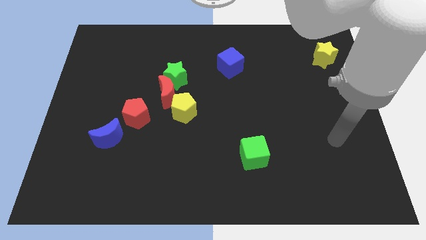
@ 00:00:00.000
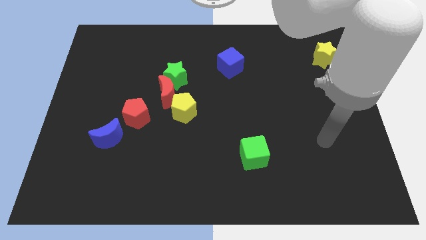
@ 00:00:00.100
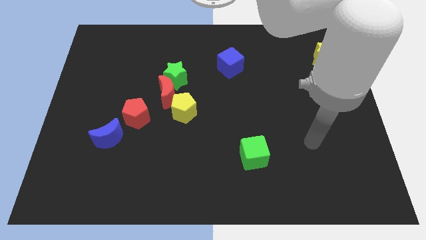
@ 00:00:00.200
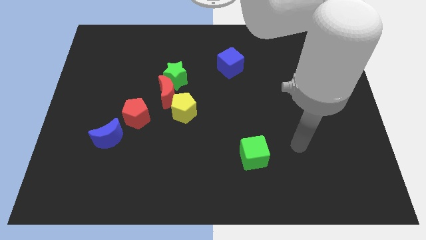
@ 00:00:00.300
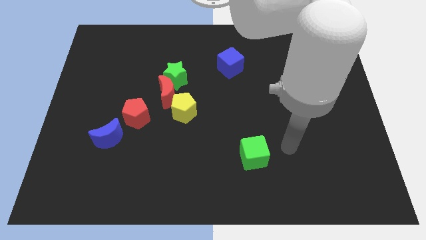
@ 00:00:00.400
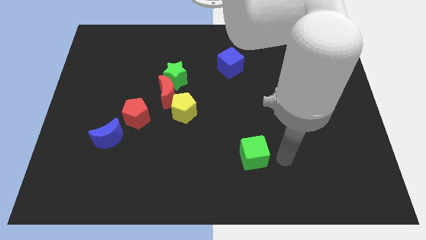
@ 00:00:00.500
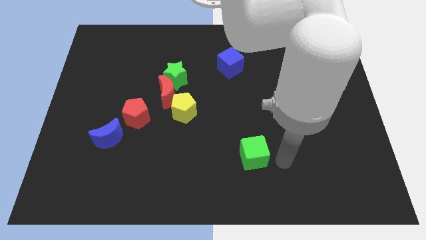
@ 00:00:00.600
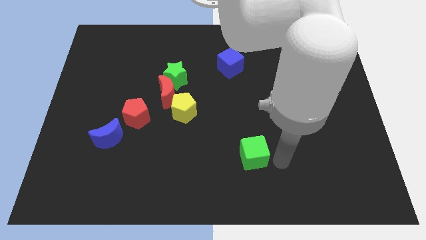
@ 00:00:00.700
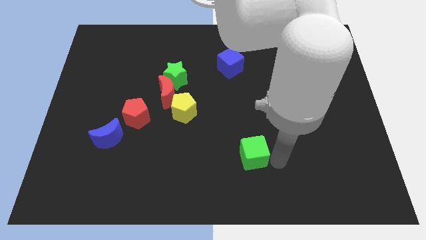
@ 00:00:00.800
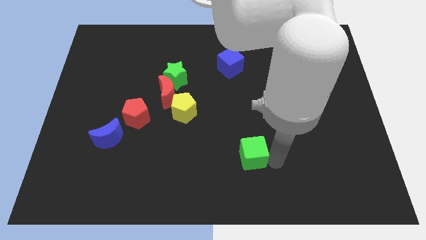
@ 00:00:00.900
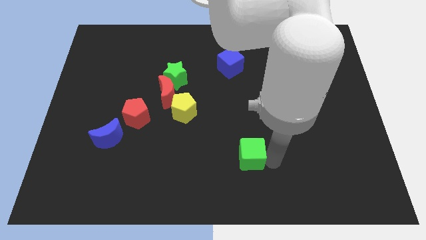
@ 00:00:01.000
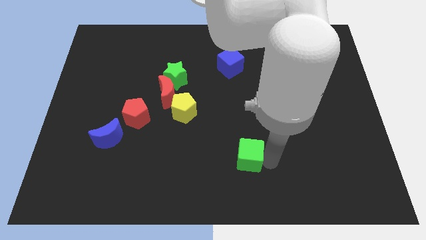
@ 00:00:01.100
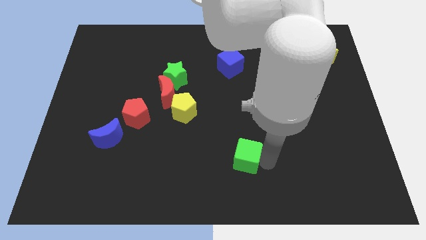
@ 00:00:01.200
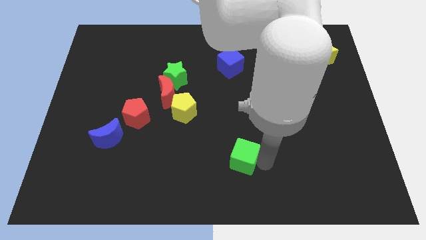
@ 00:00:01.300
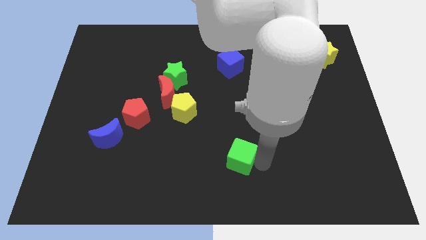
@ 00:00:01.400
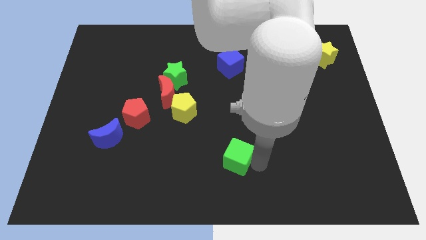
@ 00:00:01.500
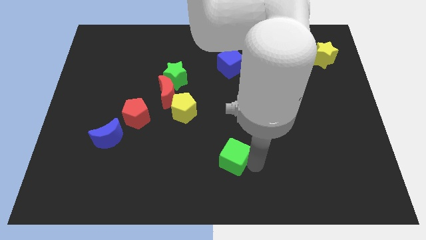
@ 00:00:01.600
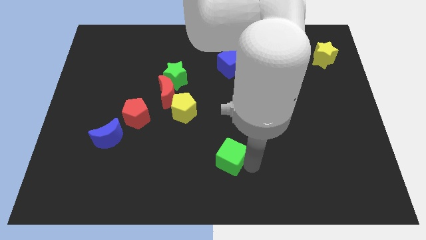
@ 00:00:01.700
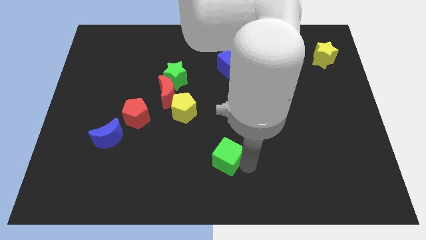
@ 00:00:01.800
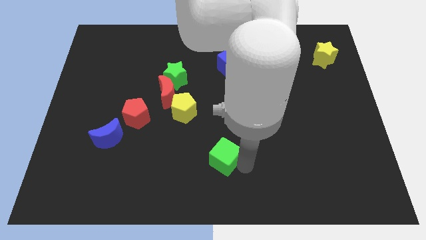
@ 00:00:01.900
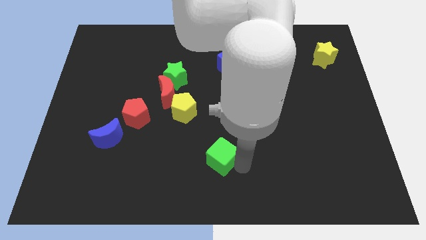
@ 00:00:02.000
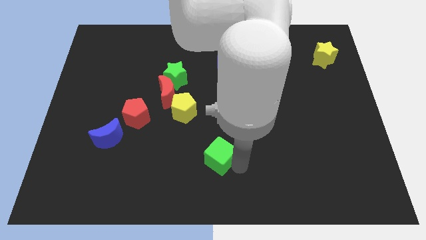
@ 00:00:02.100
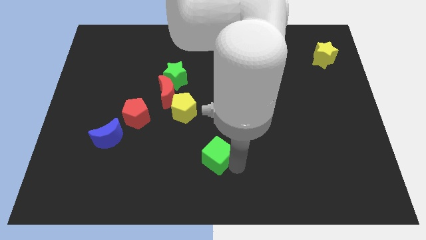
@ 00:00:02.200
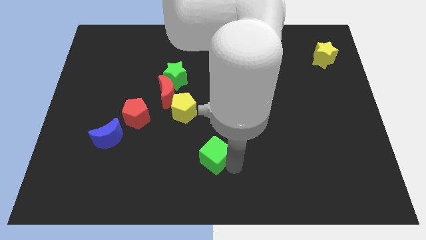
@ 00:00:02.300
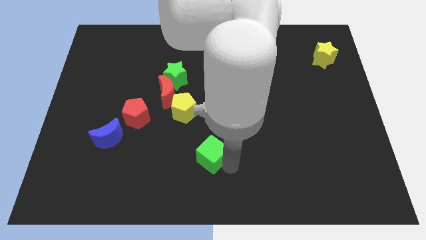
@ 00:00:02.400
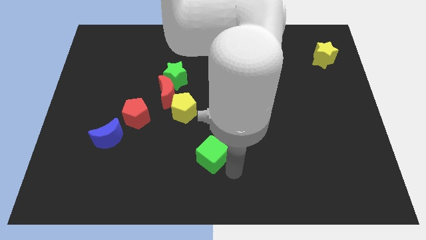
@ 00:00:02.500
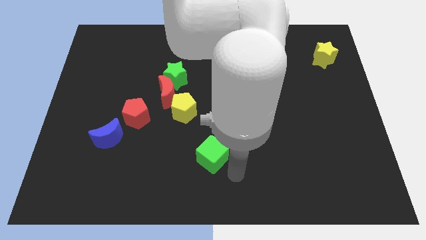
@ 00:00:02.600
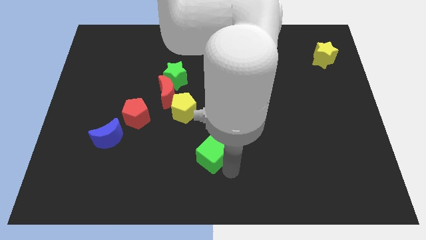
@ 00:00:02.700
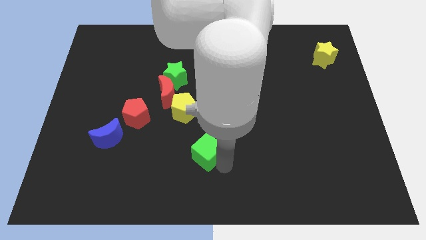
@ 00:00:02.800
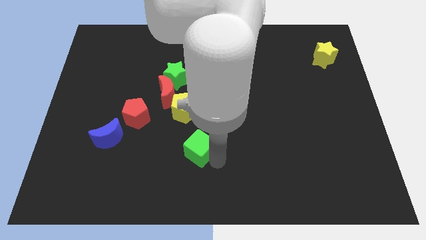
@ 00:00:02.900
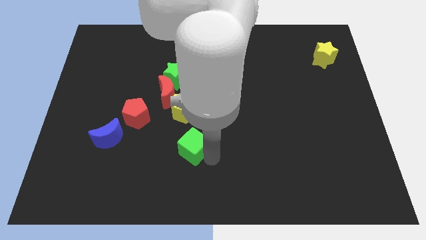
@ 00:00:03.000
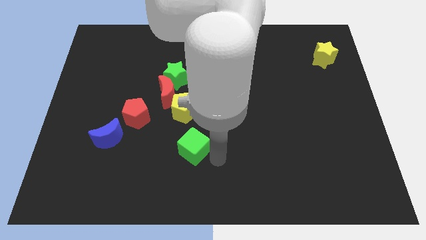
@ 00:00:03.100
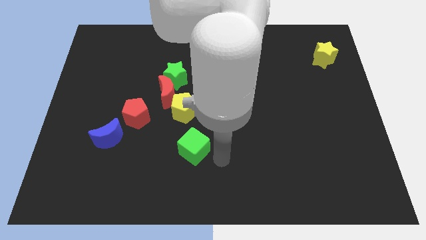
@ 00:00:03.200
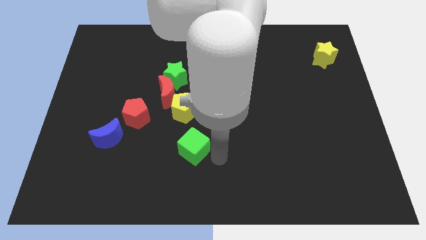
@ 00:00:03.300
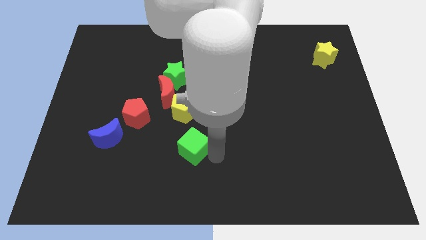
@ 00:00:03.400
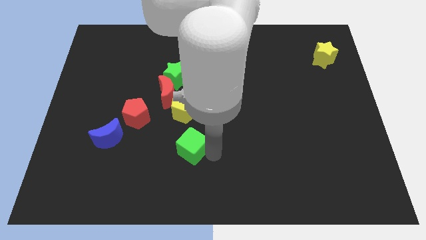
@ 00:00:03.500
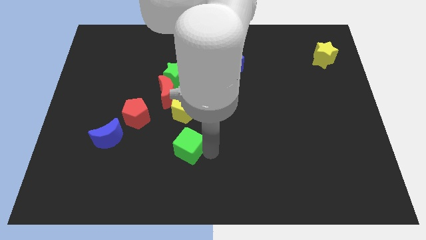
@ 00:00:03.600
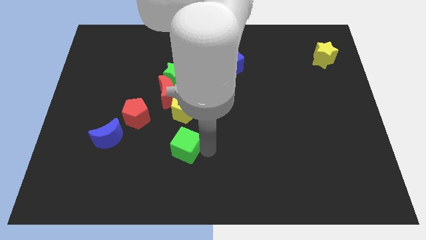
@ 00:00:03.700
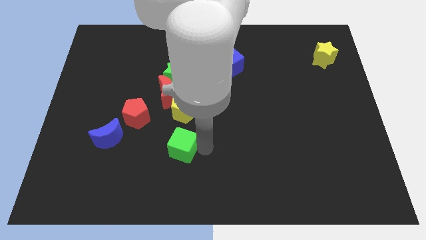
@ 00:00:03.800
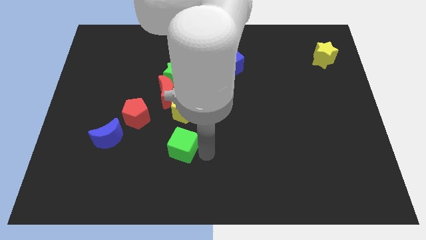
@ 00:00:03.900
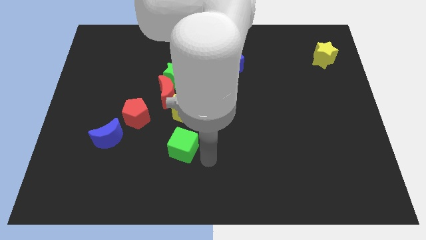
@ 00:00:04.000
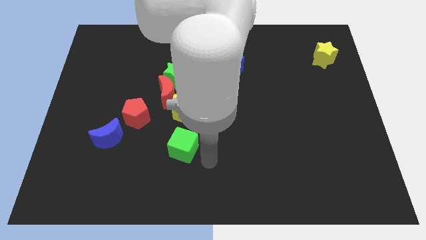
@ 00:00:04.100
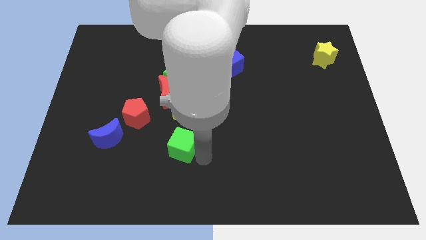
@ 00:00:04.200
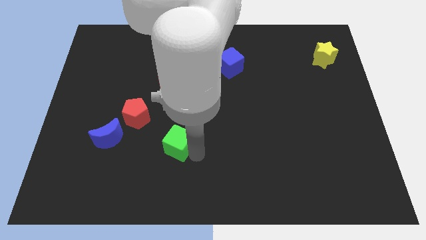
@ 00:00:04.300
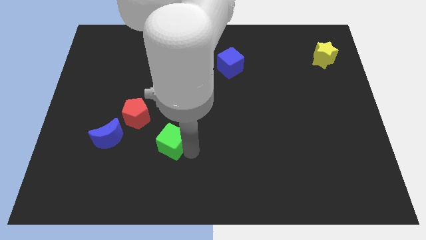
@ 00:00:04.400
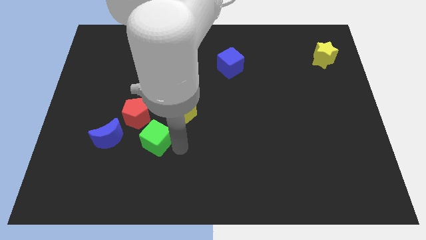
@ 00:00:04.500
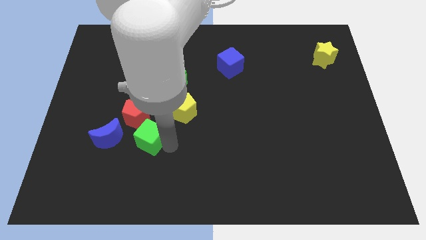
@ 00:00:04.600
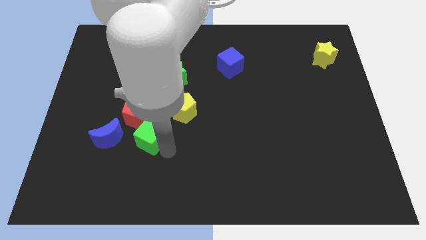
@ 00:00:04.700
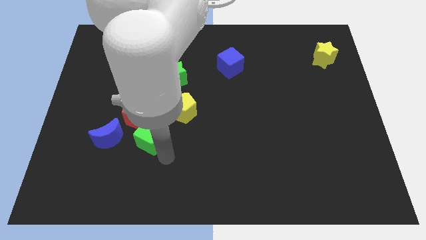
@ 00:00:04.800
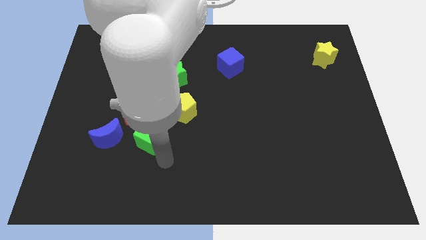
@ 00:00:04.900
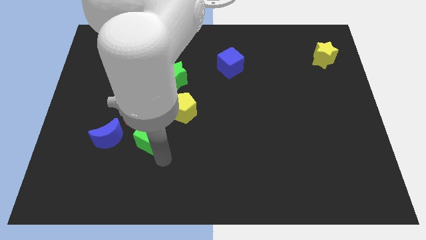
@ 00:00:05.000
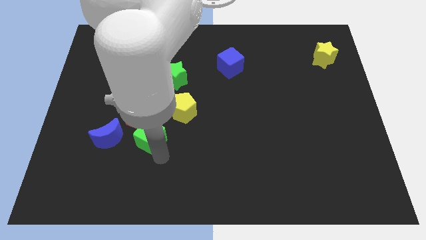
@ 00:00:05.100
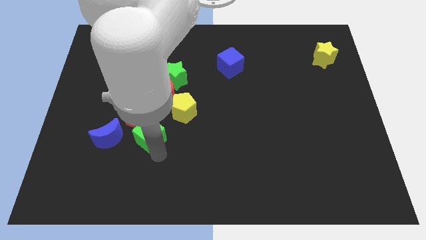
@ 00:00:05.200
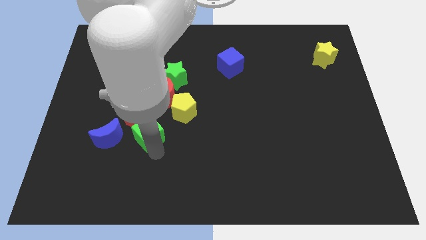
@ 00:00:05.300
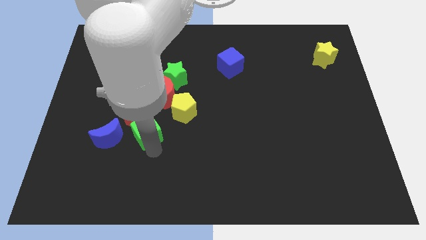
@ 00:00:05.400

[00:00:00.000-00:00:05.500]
move the green cube to the red pentagon

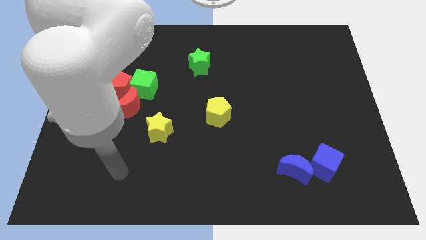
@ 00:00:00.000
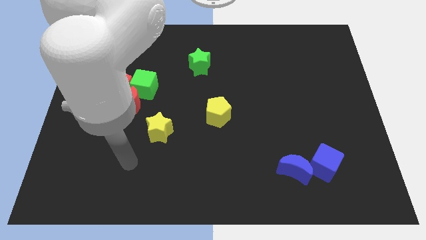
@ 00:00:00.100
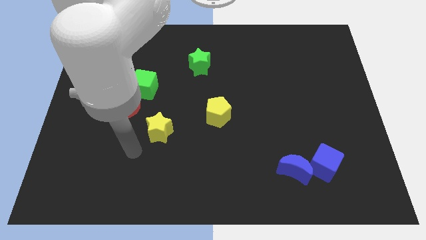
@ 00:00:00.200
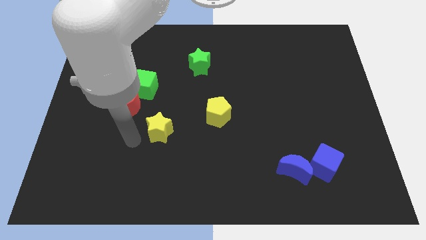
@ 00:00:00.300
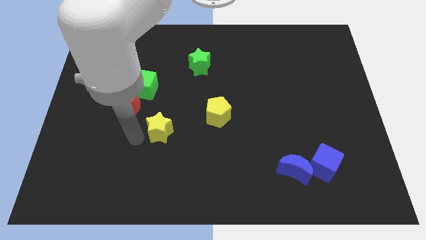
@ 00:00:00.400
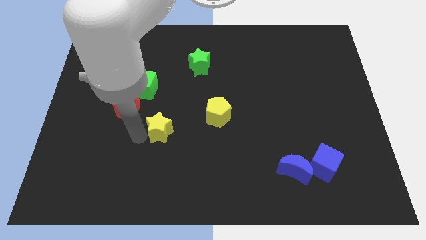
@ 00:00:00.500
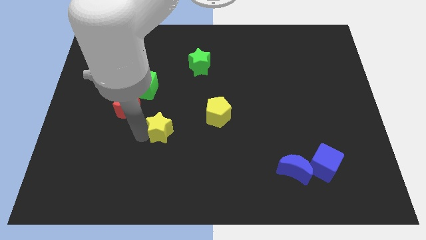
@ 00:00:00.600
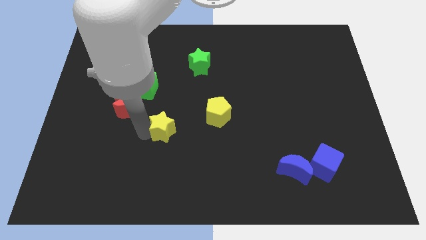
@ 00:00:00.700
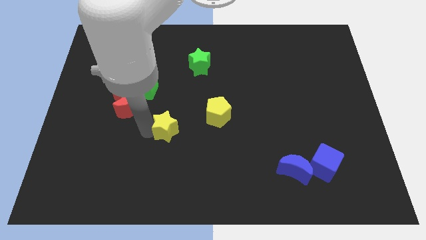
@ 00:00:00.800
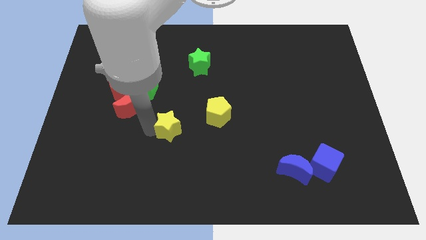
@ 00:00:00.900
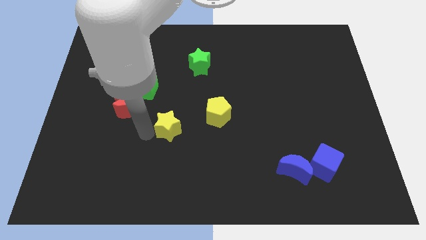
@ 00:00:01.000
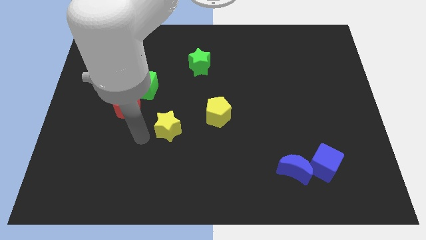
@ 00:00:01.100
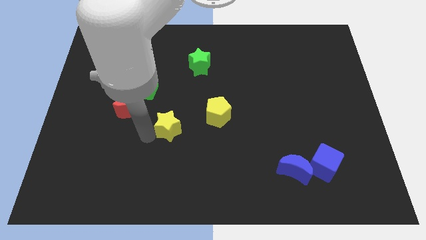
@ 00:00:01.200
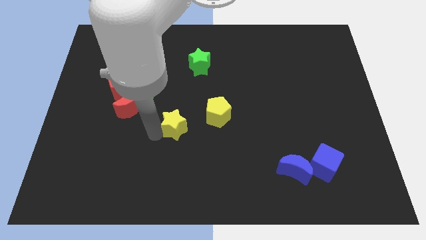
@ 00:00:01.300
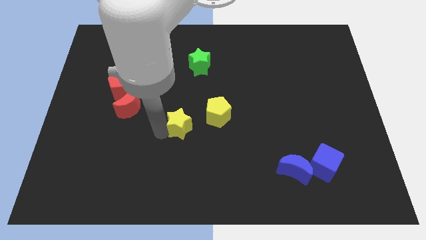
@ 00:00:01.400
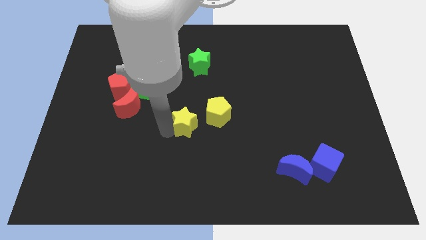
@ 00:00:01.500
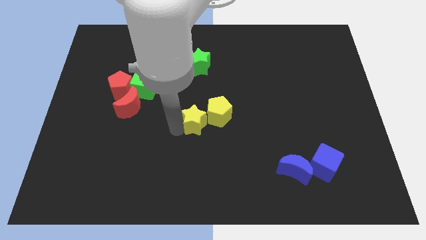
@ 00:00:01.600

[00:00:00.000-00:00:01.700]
push the yellow star towards the yellow pentagon
